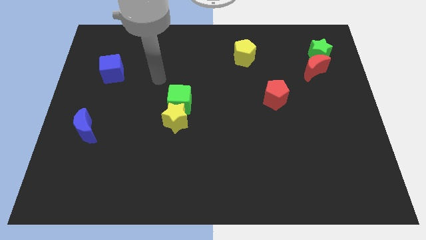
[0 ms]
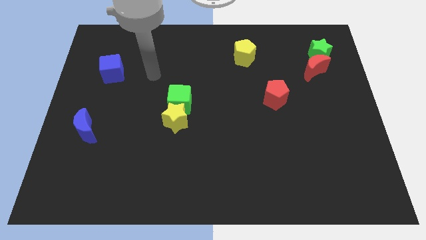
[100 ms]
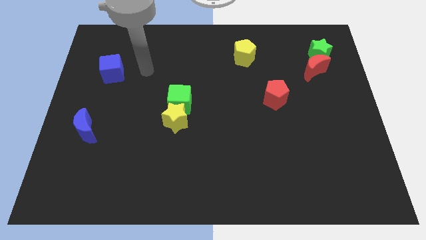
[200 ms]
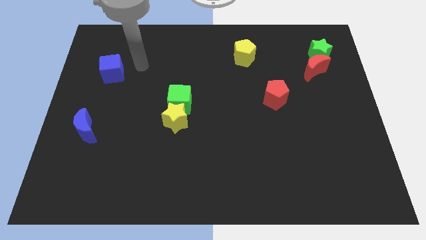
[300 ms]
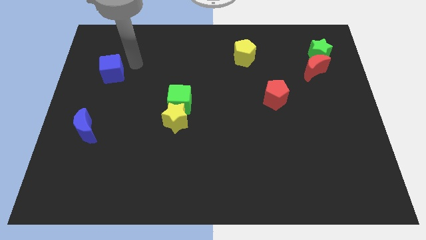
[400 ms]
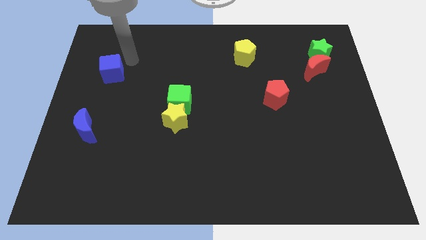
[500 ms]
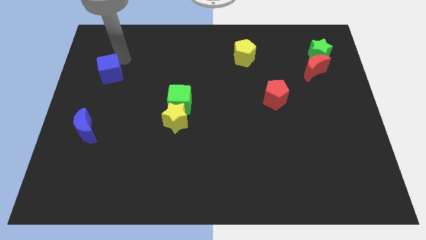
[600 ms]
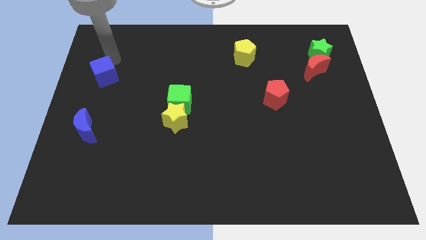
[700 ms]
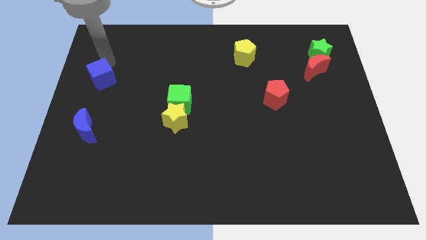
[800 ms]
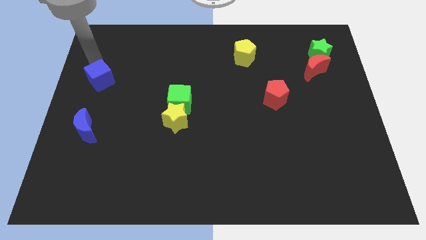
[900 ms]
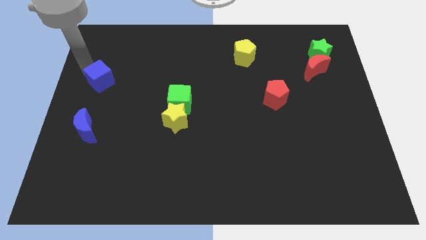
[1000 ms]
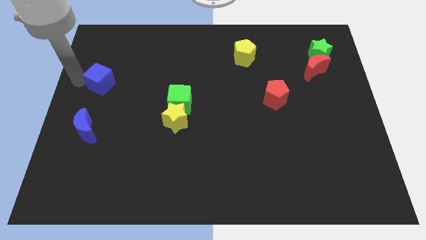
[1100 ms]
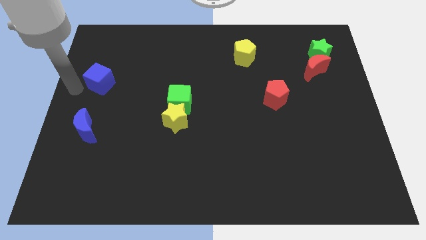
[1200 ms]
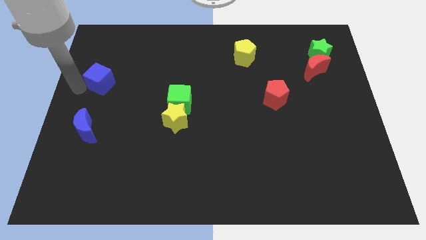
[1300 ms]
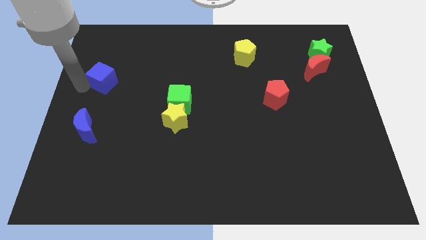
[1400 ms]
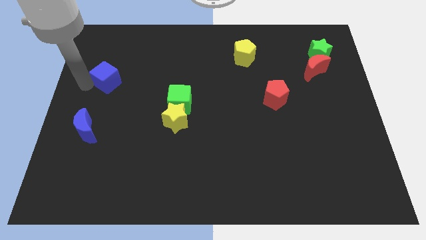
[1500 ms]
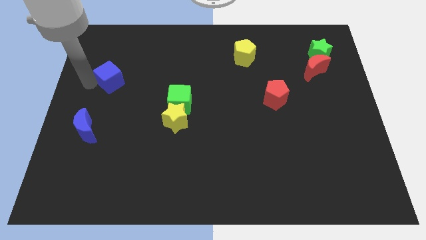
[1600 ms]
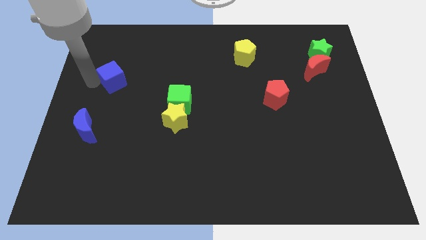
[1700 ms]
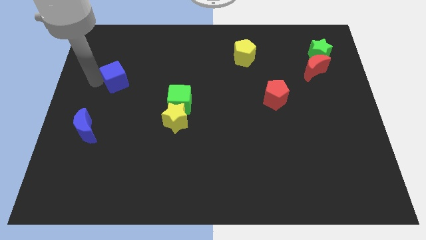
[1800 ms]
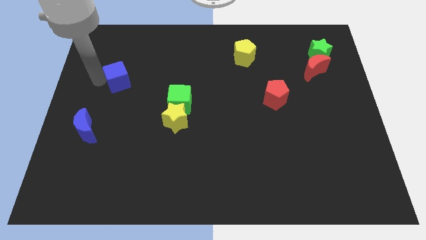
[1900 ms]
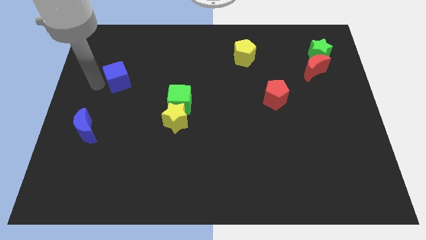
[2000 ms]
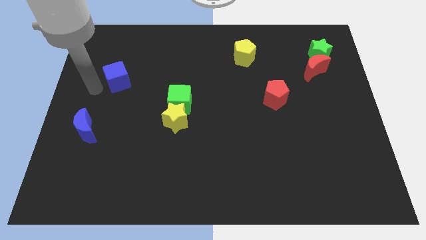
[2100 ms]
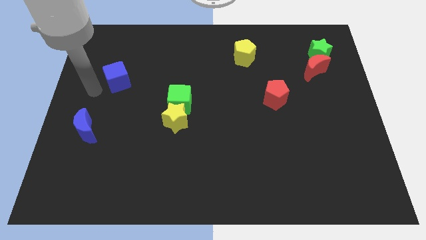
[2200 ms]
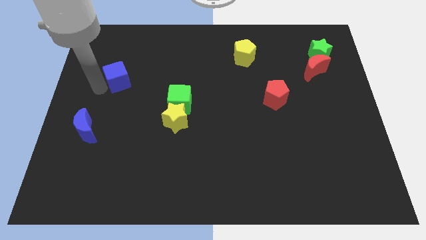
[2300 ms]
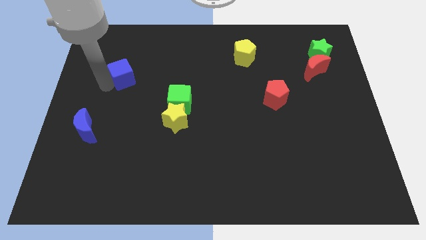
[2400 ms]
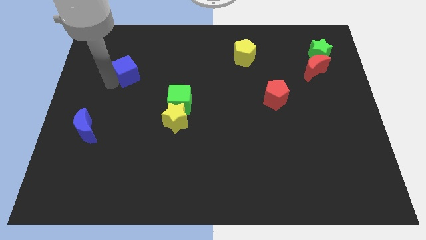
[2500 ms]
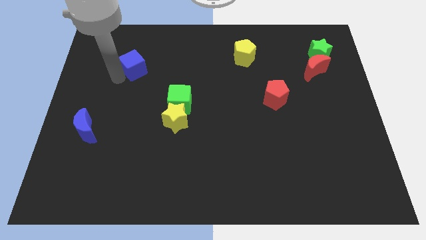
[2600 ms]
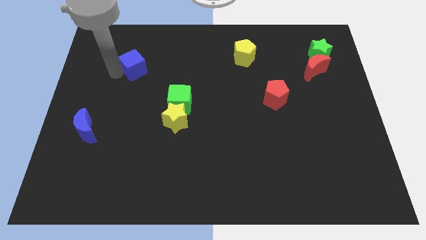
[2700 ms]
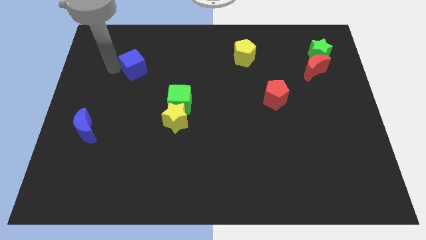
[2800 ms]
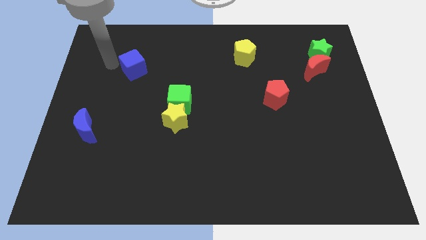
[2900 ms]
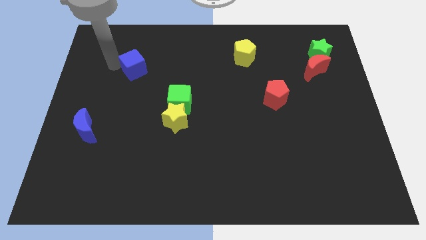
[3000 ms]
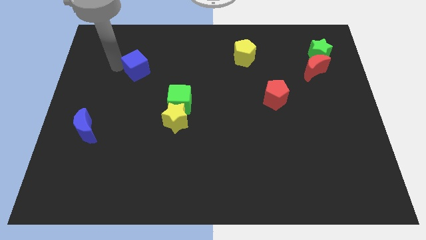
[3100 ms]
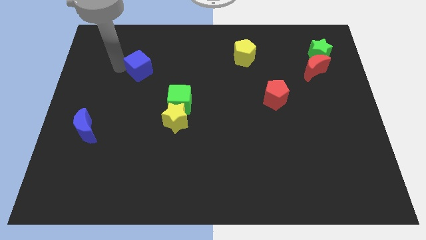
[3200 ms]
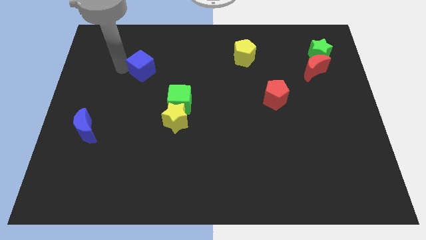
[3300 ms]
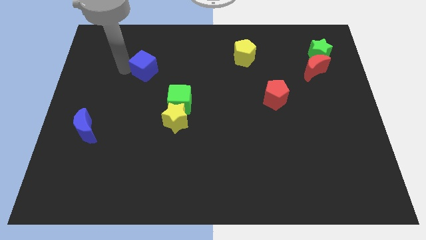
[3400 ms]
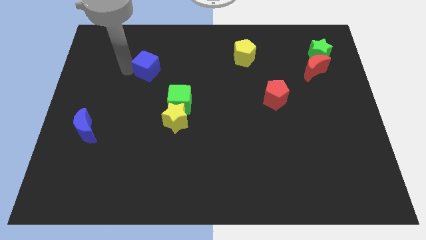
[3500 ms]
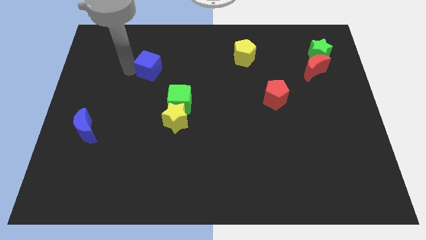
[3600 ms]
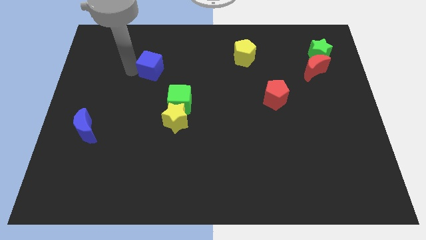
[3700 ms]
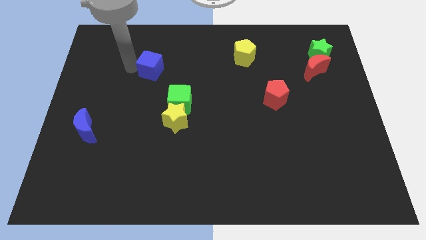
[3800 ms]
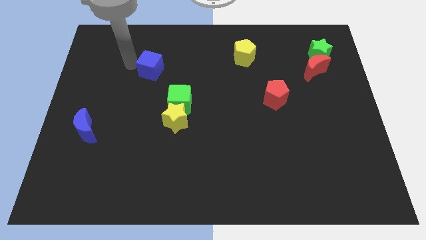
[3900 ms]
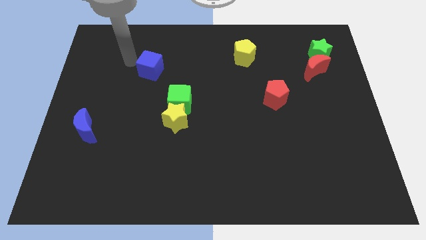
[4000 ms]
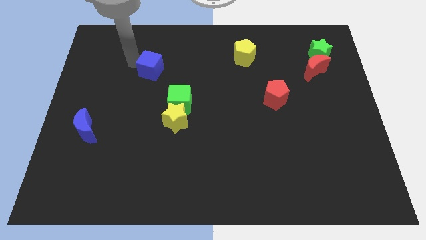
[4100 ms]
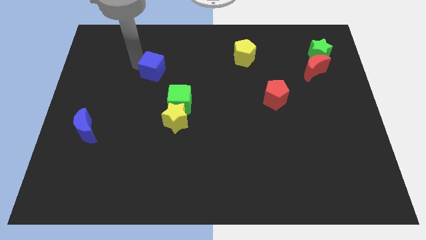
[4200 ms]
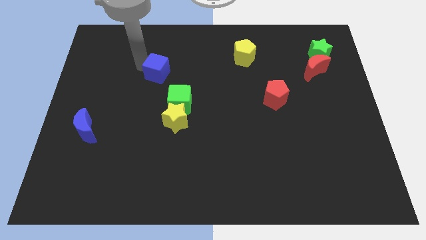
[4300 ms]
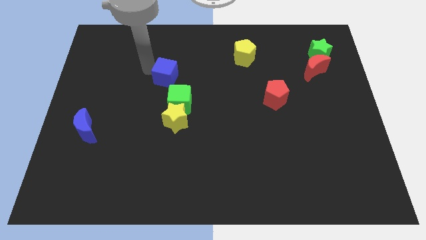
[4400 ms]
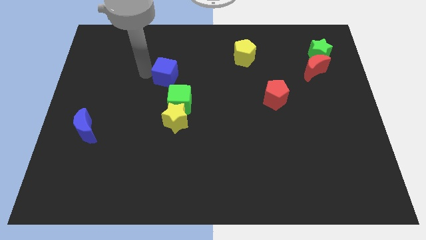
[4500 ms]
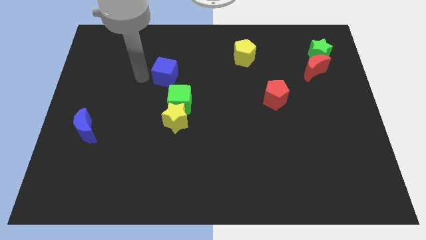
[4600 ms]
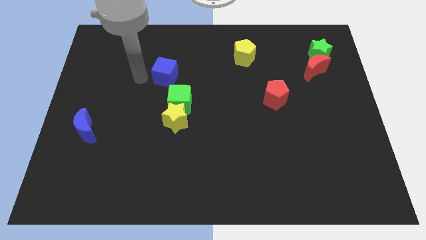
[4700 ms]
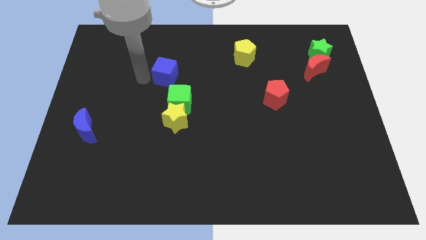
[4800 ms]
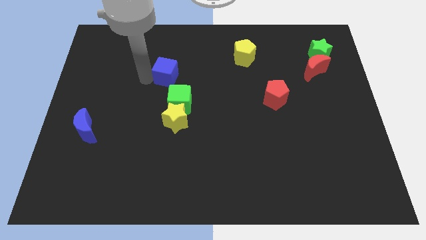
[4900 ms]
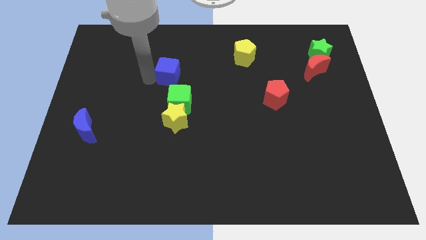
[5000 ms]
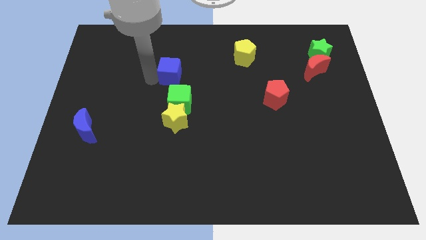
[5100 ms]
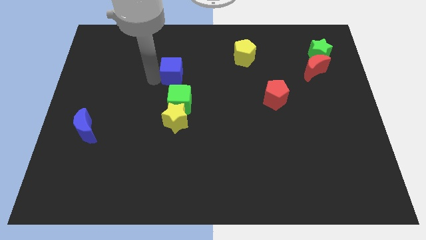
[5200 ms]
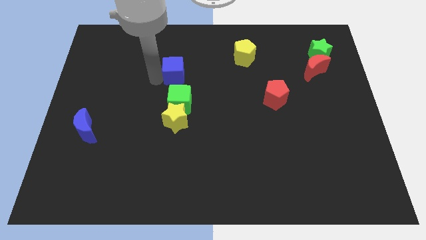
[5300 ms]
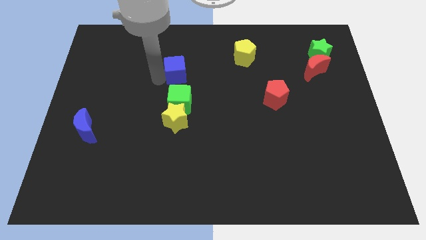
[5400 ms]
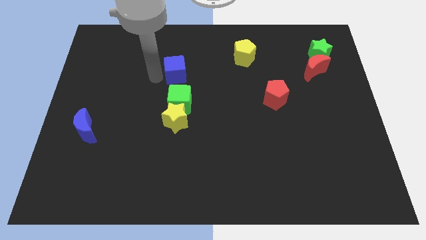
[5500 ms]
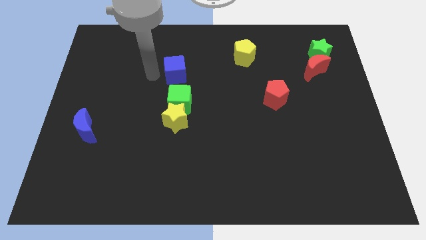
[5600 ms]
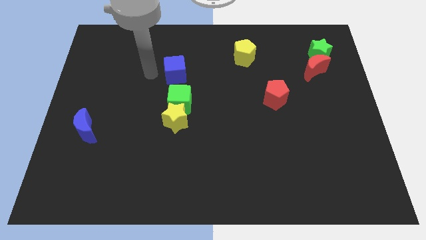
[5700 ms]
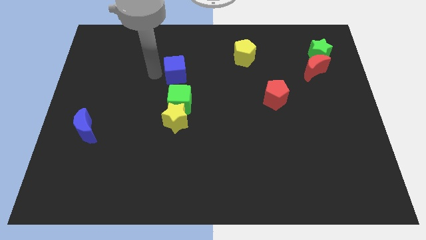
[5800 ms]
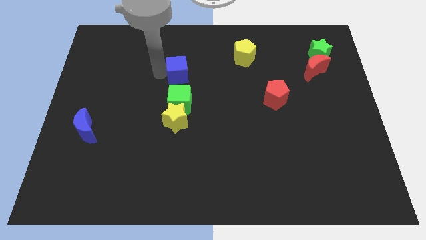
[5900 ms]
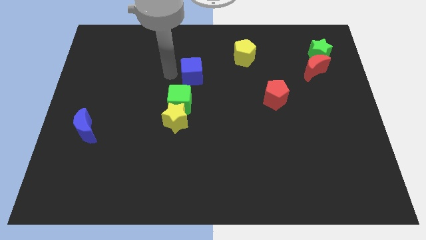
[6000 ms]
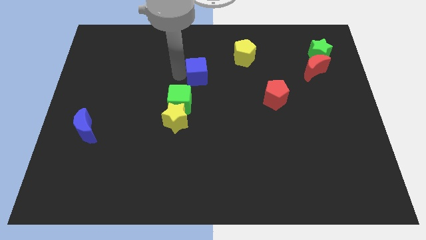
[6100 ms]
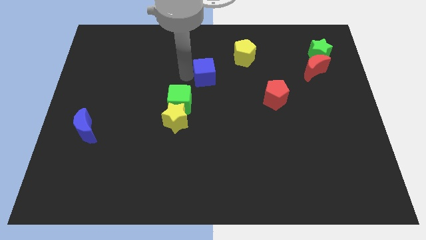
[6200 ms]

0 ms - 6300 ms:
push the blue cube diagonally down and to the left of the yellow pentagon

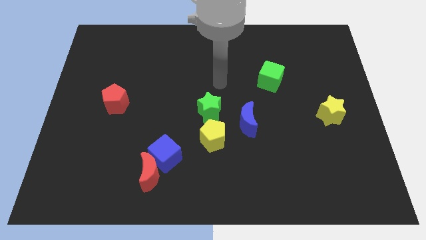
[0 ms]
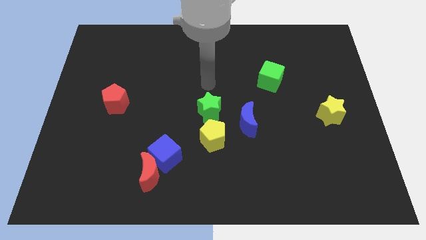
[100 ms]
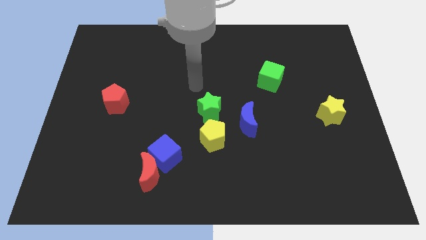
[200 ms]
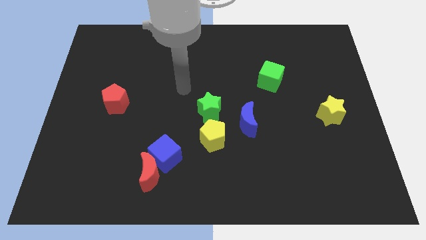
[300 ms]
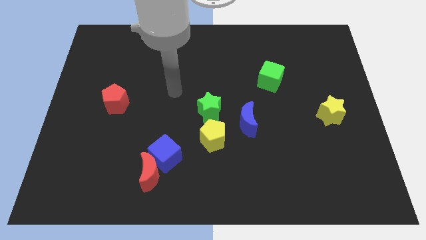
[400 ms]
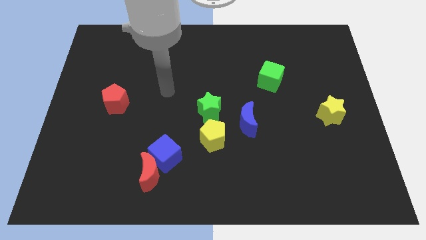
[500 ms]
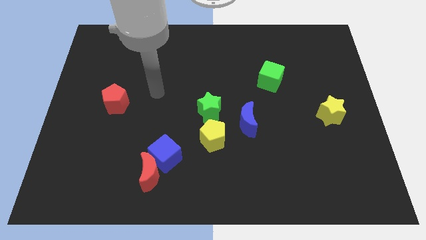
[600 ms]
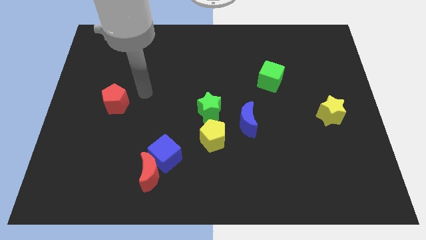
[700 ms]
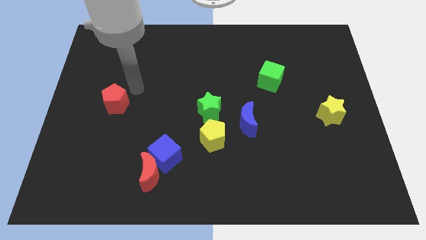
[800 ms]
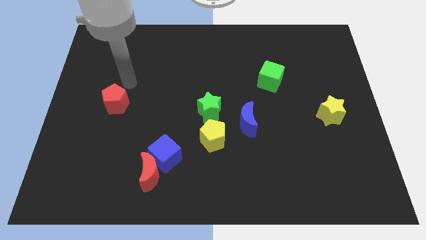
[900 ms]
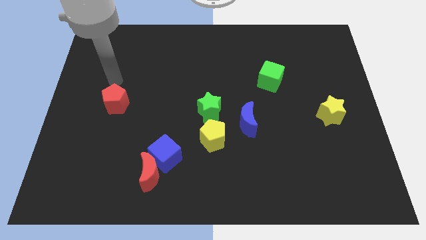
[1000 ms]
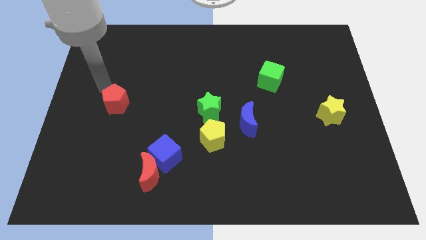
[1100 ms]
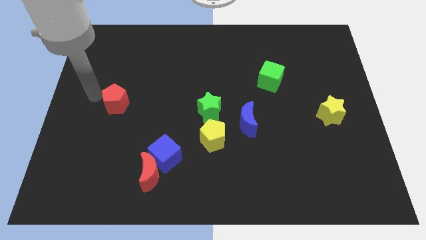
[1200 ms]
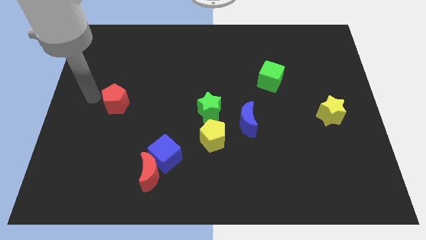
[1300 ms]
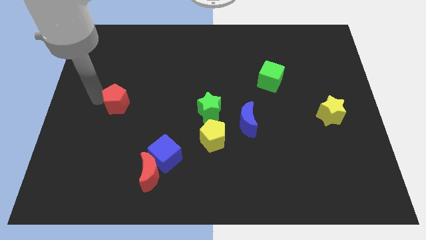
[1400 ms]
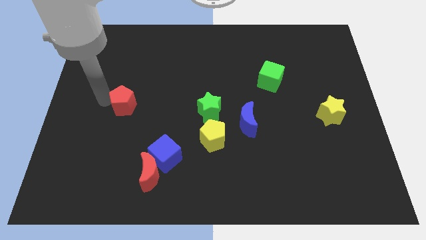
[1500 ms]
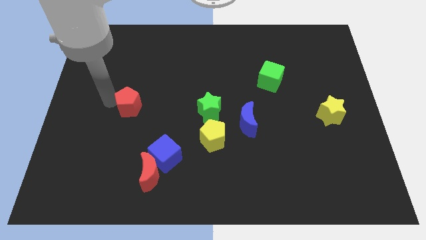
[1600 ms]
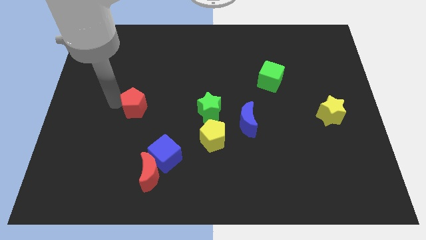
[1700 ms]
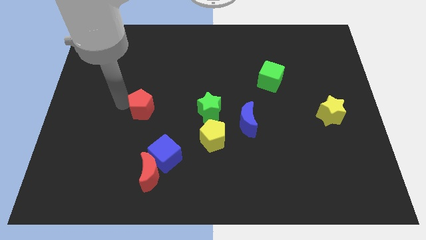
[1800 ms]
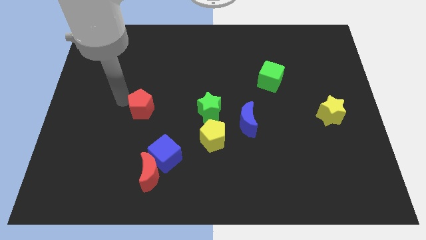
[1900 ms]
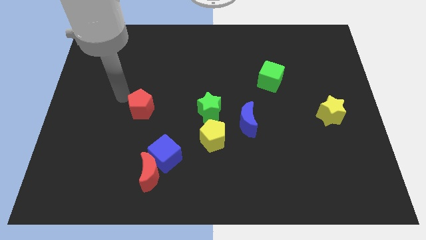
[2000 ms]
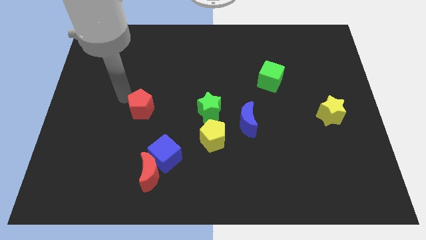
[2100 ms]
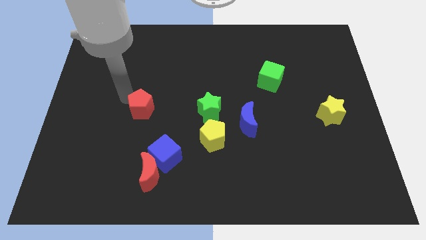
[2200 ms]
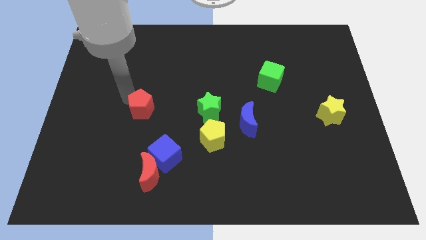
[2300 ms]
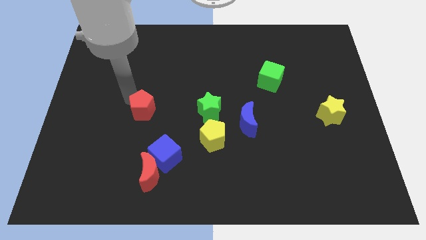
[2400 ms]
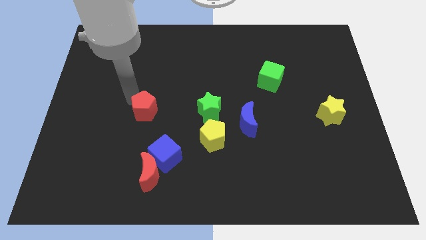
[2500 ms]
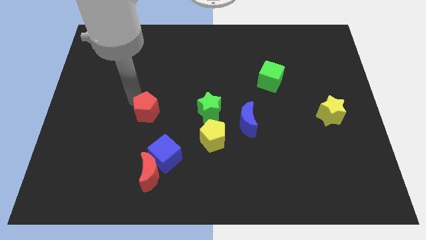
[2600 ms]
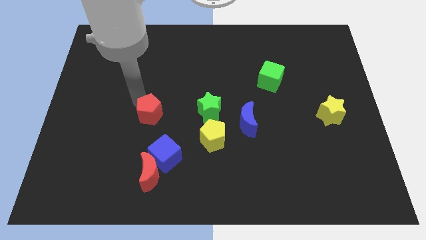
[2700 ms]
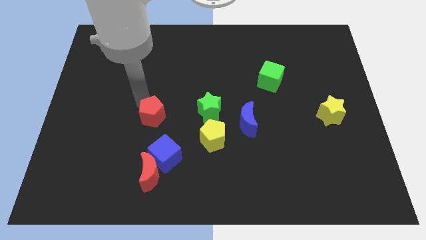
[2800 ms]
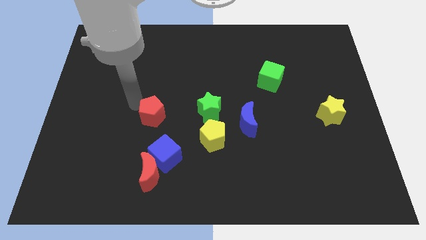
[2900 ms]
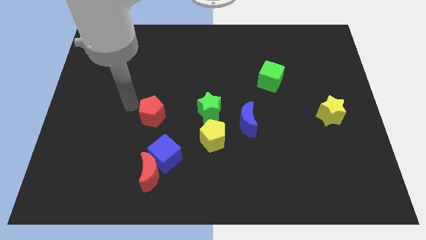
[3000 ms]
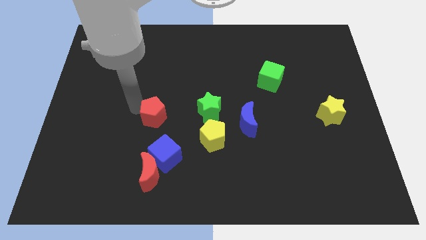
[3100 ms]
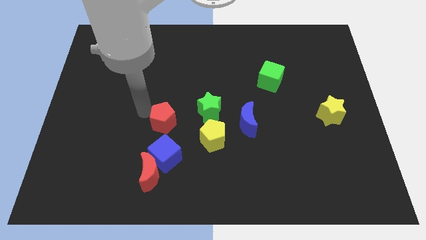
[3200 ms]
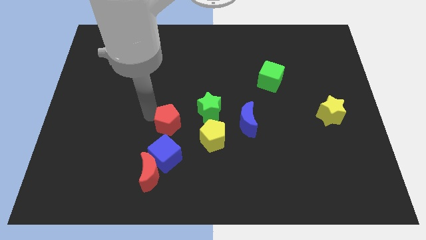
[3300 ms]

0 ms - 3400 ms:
push the red pentagon to the bottom left of the green star
